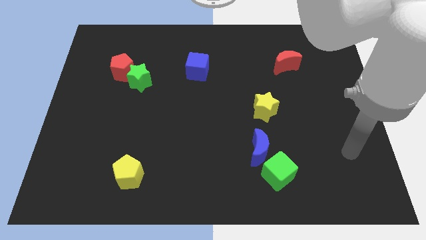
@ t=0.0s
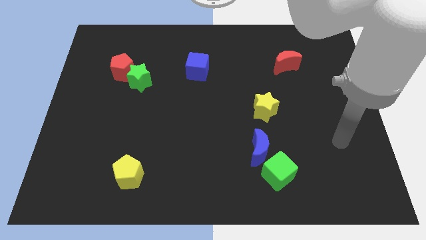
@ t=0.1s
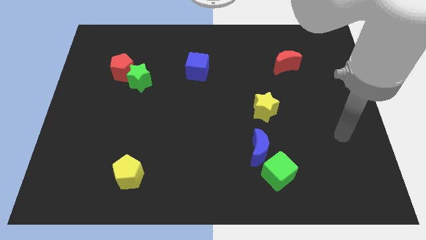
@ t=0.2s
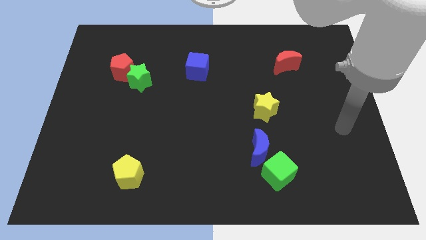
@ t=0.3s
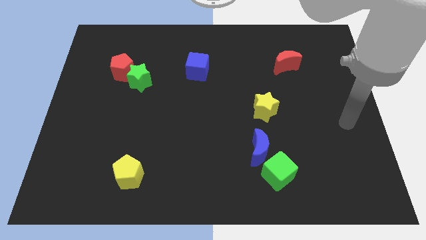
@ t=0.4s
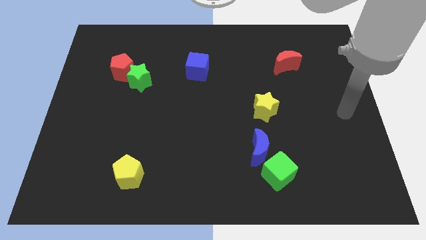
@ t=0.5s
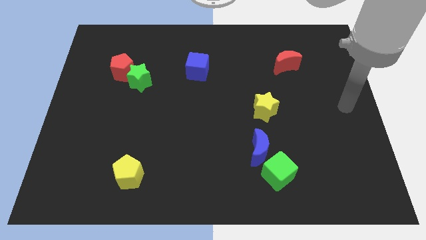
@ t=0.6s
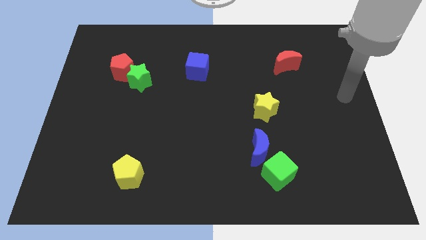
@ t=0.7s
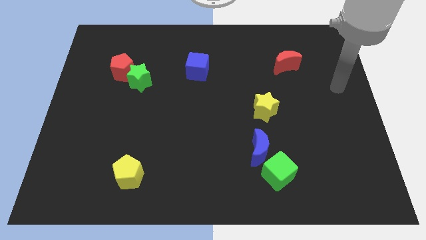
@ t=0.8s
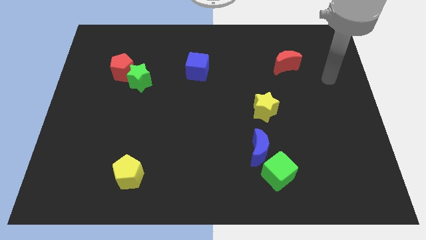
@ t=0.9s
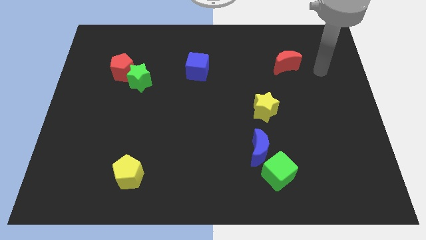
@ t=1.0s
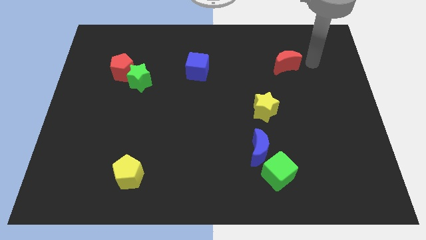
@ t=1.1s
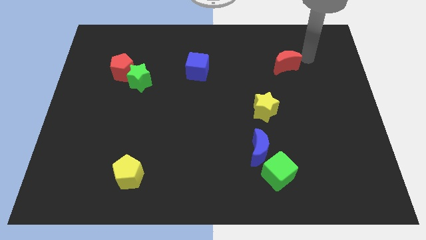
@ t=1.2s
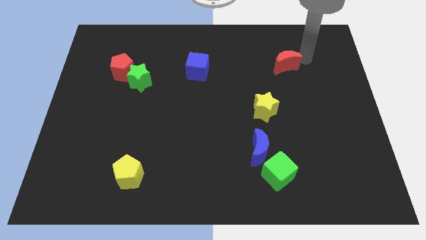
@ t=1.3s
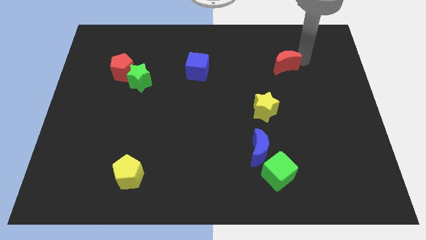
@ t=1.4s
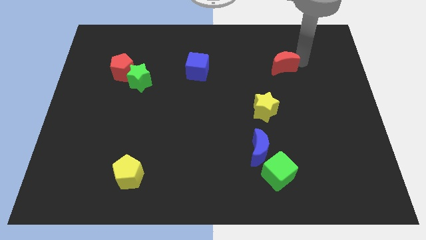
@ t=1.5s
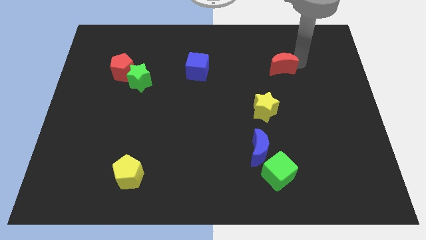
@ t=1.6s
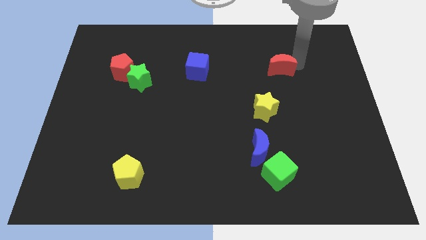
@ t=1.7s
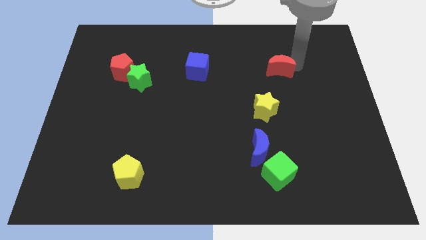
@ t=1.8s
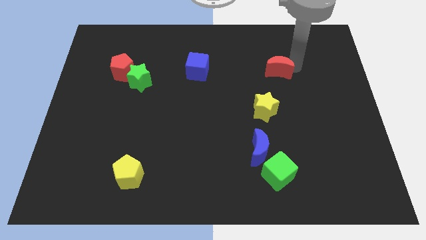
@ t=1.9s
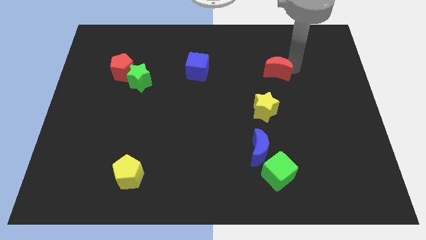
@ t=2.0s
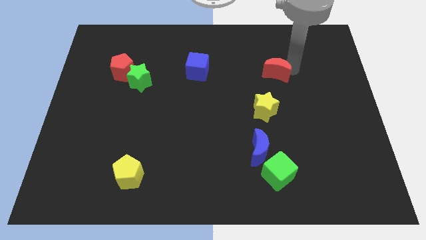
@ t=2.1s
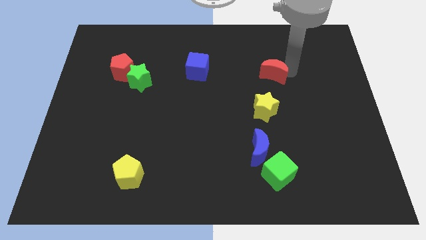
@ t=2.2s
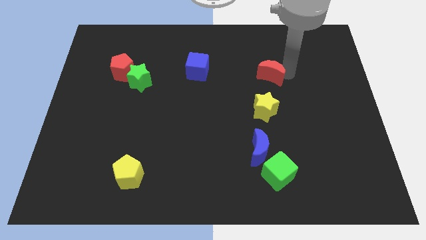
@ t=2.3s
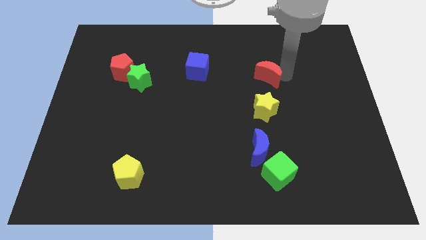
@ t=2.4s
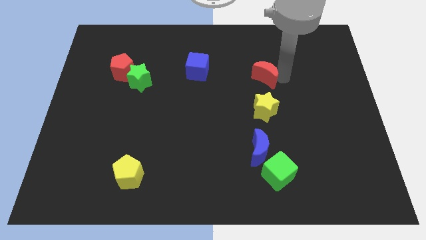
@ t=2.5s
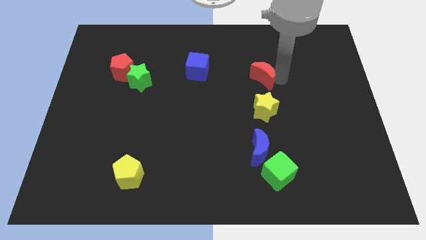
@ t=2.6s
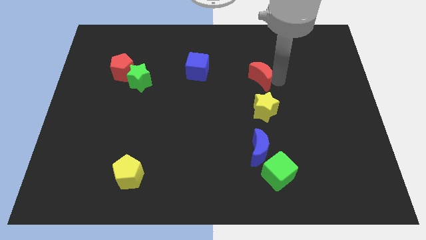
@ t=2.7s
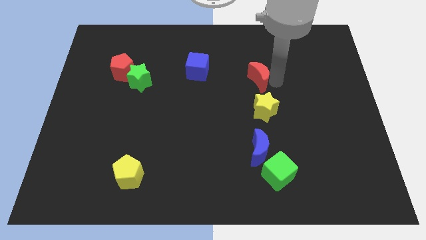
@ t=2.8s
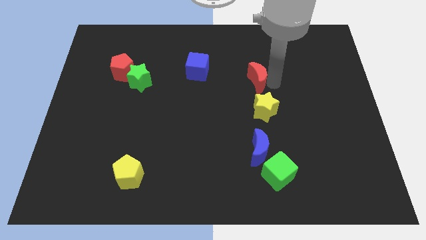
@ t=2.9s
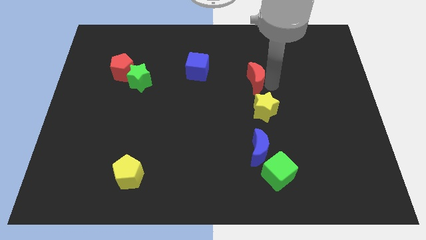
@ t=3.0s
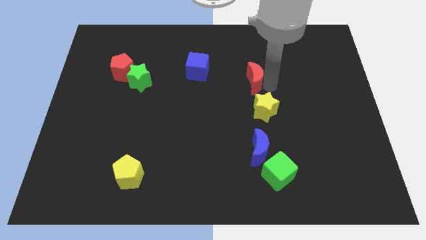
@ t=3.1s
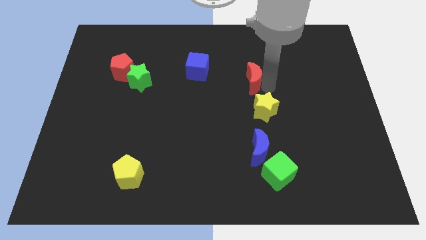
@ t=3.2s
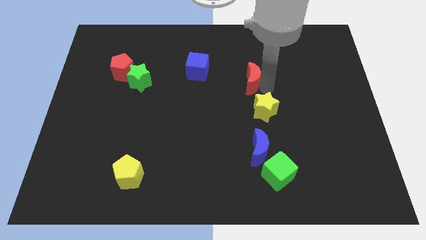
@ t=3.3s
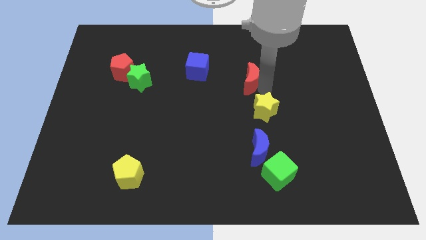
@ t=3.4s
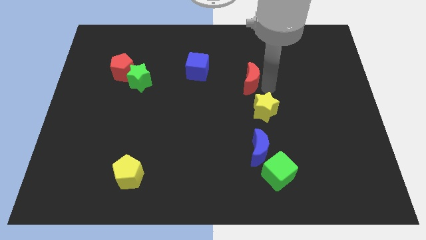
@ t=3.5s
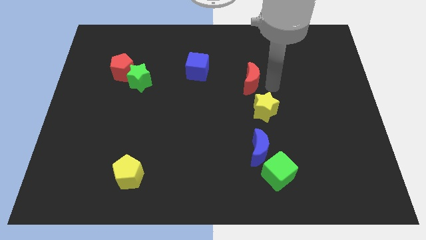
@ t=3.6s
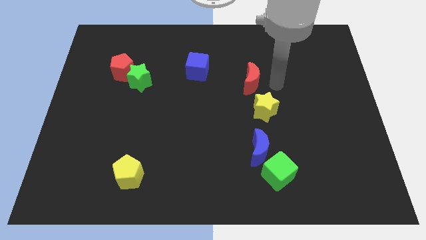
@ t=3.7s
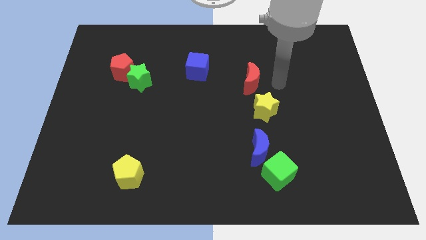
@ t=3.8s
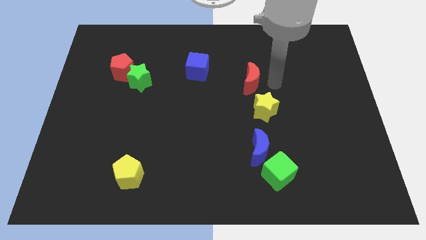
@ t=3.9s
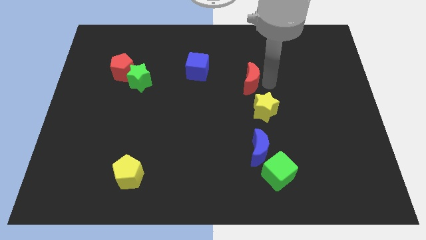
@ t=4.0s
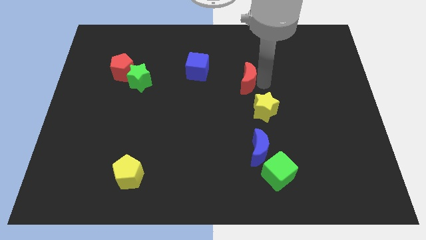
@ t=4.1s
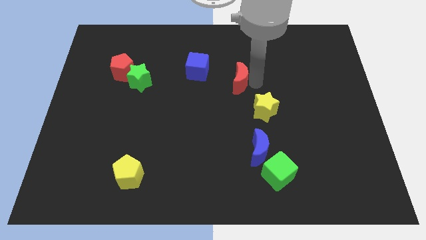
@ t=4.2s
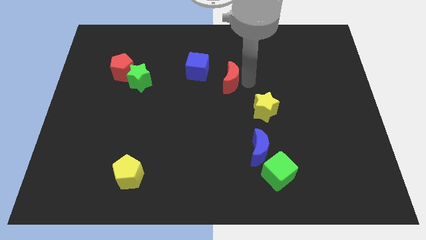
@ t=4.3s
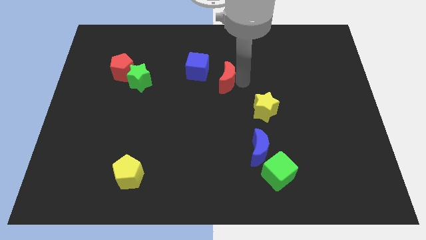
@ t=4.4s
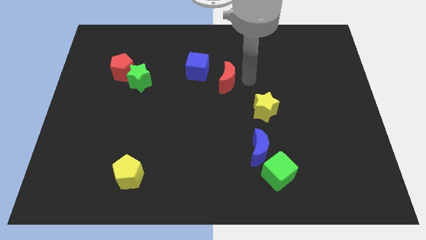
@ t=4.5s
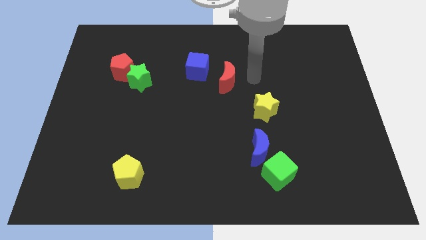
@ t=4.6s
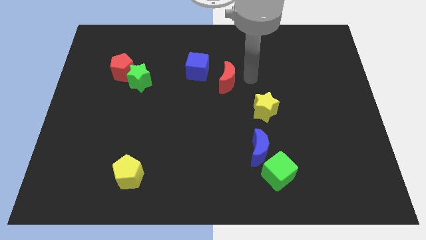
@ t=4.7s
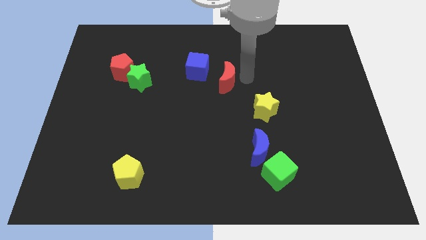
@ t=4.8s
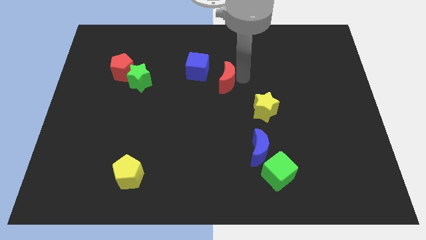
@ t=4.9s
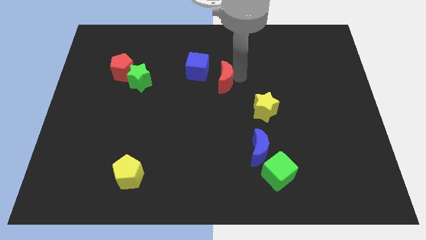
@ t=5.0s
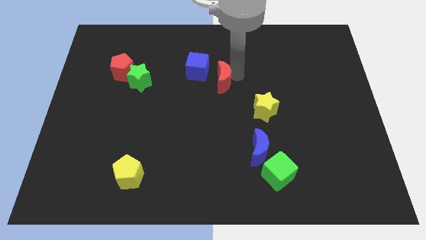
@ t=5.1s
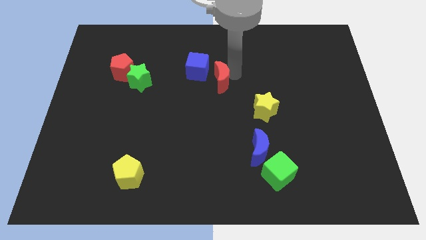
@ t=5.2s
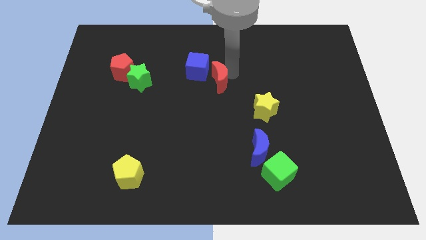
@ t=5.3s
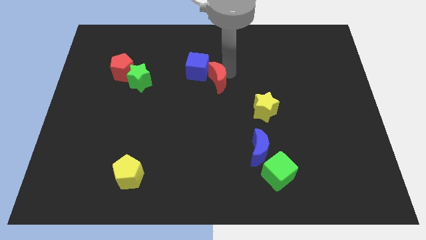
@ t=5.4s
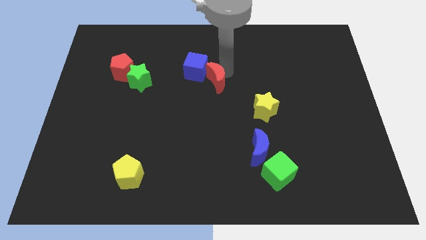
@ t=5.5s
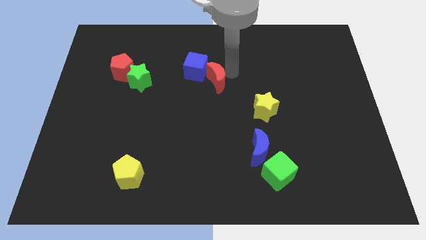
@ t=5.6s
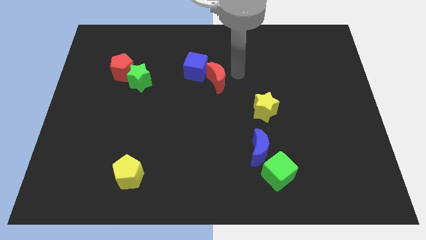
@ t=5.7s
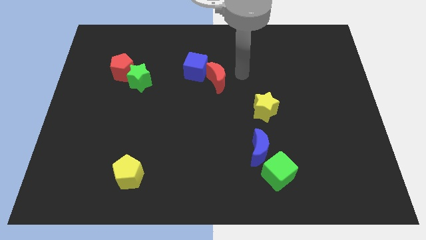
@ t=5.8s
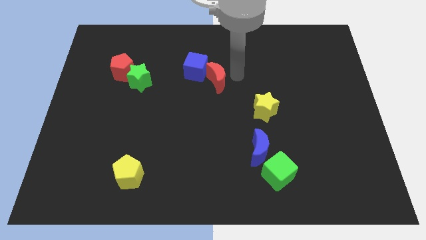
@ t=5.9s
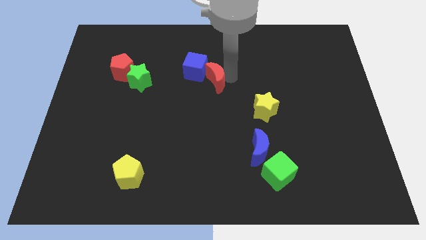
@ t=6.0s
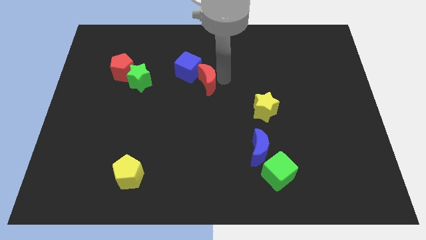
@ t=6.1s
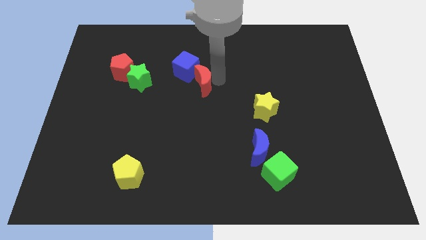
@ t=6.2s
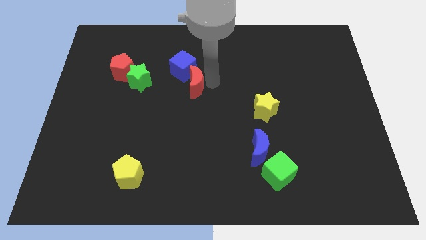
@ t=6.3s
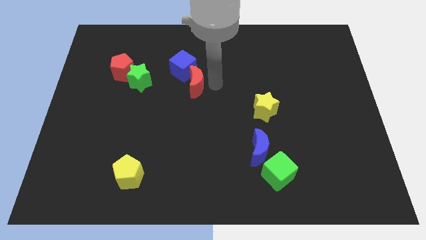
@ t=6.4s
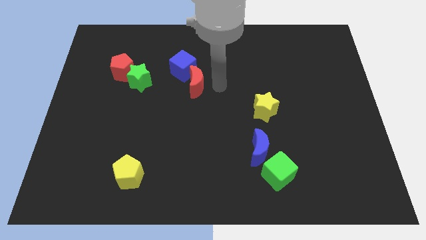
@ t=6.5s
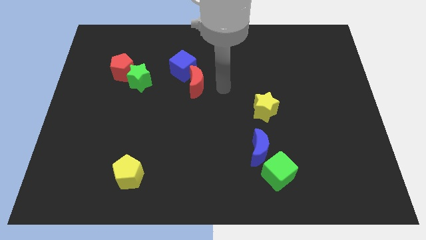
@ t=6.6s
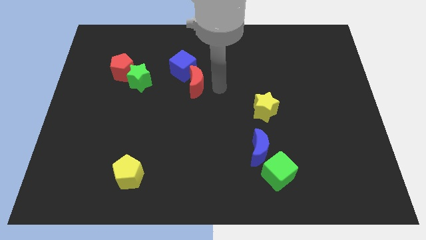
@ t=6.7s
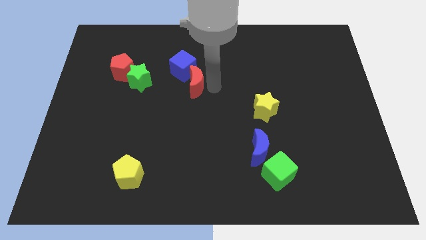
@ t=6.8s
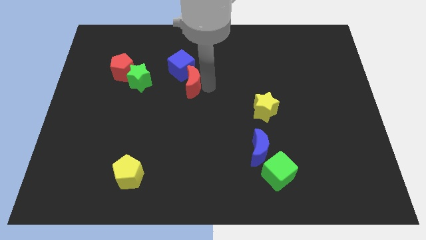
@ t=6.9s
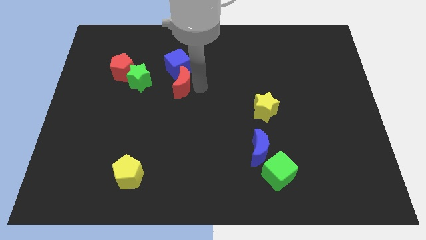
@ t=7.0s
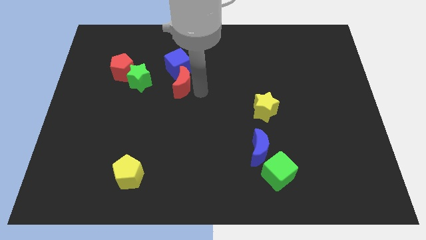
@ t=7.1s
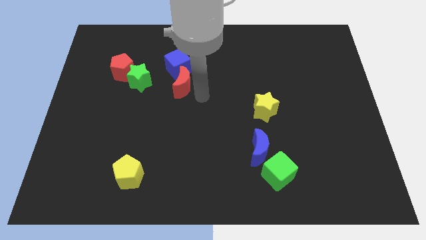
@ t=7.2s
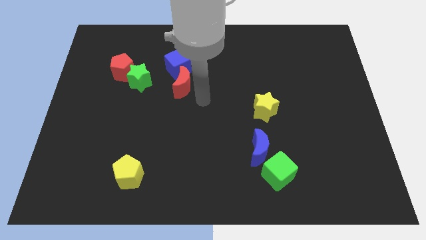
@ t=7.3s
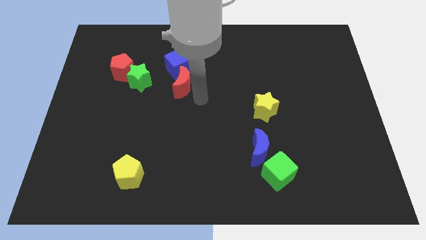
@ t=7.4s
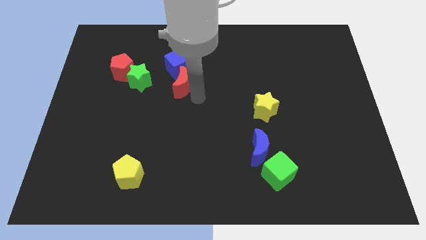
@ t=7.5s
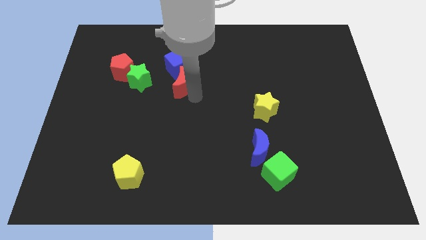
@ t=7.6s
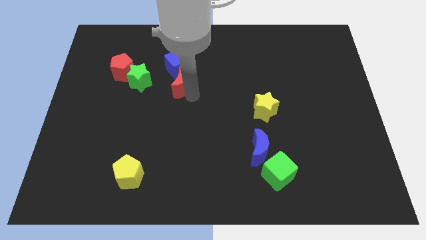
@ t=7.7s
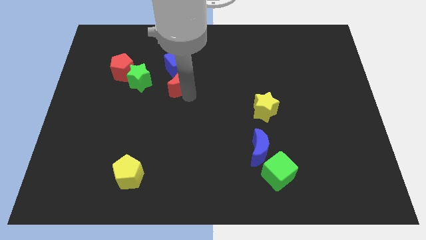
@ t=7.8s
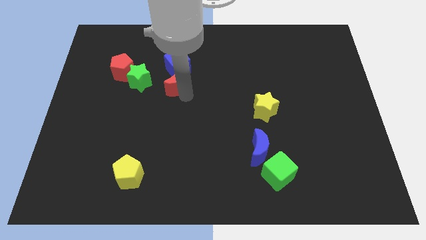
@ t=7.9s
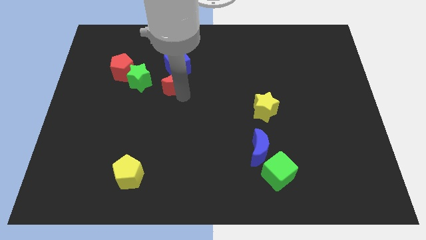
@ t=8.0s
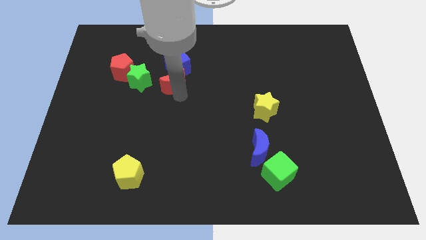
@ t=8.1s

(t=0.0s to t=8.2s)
push the red moon just right of the red pentagon
